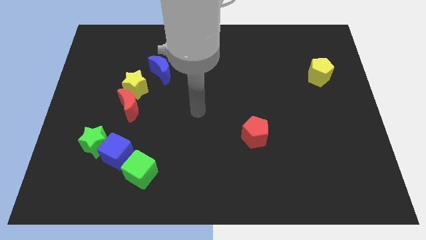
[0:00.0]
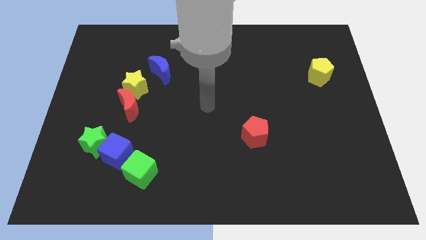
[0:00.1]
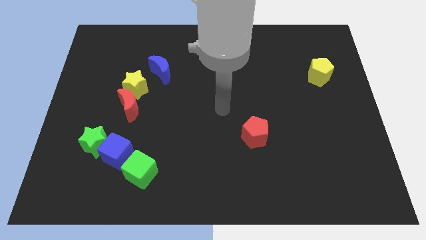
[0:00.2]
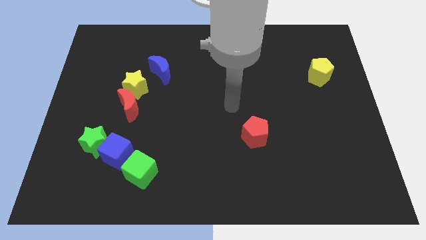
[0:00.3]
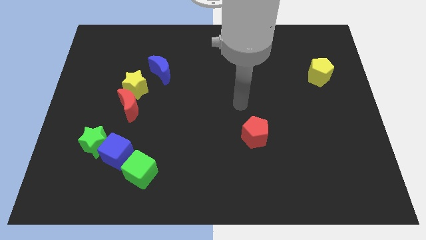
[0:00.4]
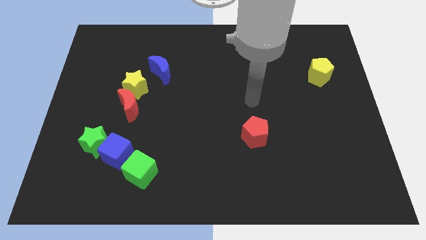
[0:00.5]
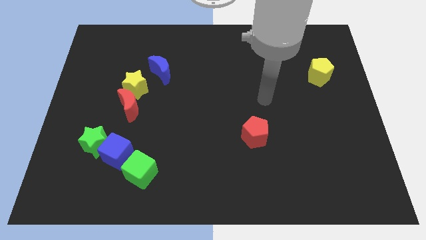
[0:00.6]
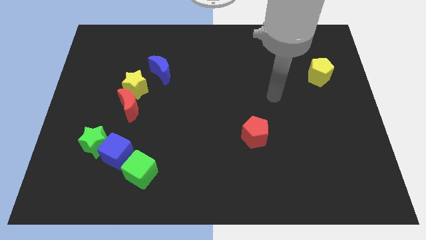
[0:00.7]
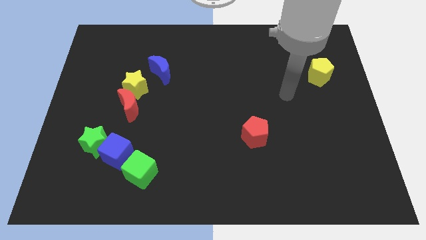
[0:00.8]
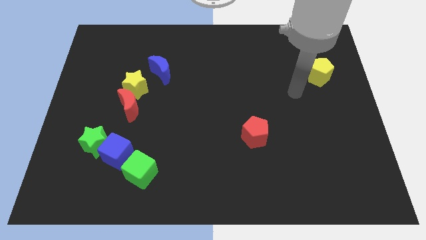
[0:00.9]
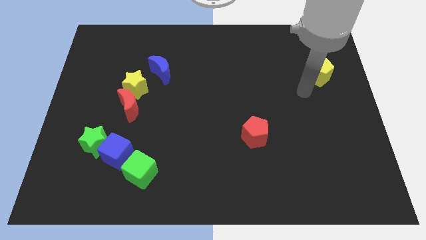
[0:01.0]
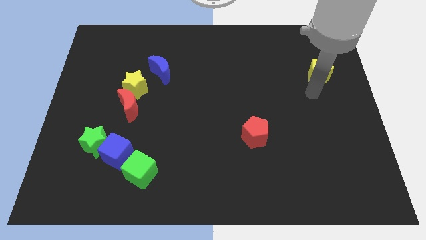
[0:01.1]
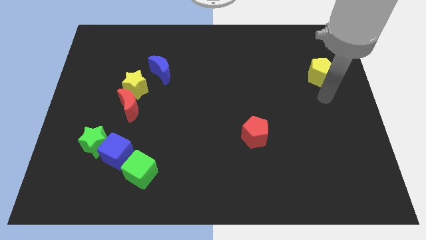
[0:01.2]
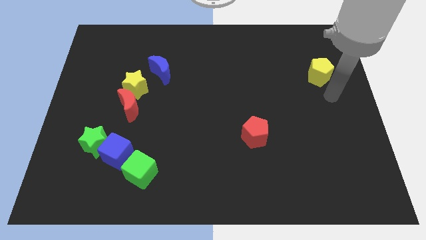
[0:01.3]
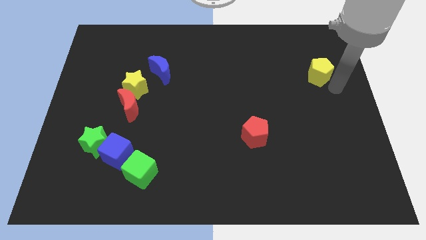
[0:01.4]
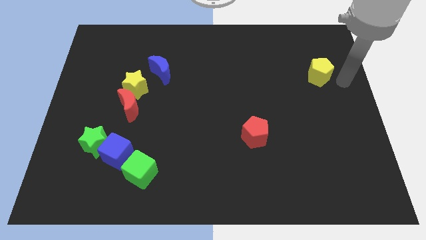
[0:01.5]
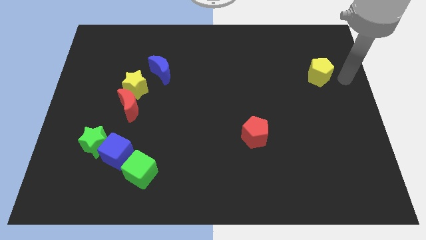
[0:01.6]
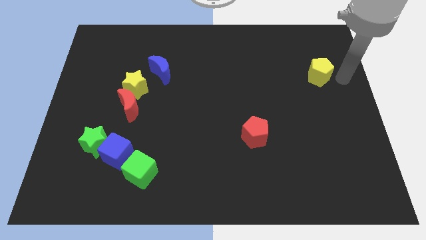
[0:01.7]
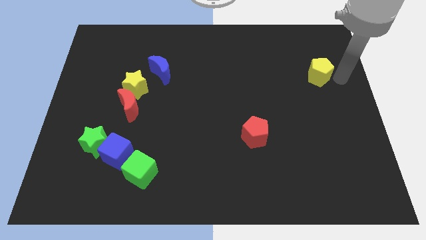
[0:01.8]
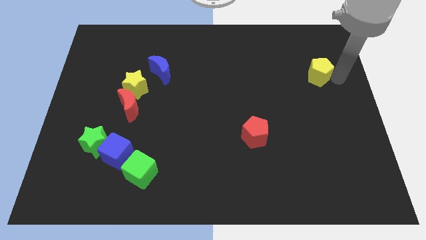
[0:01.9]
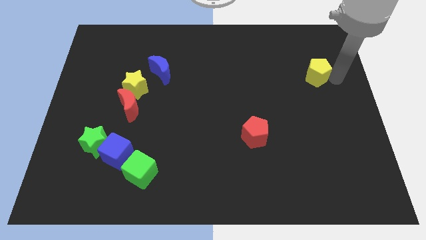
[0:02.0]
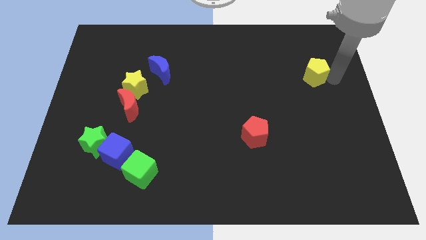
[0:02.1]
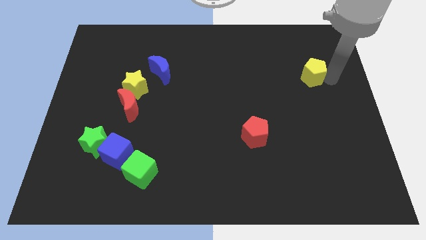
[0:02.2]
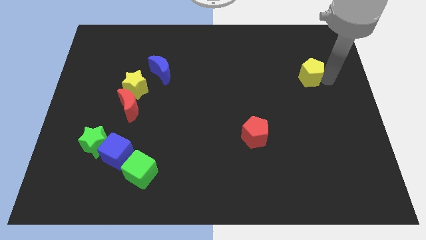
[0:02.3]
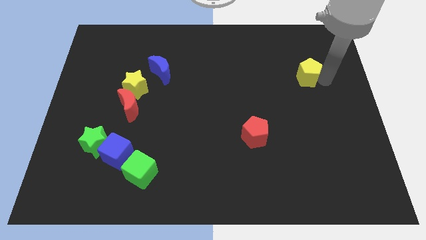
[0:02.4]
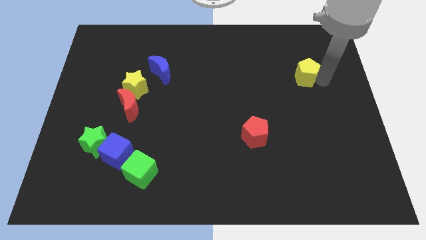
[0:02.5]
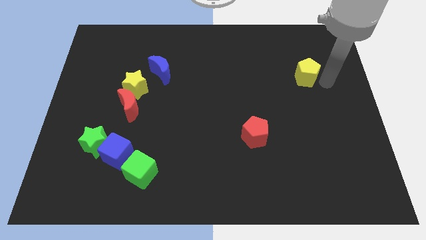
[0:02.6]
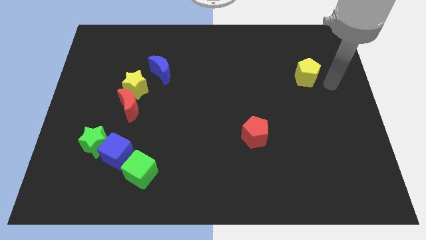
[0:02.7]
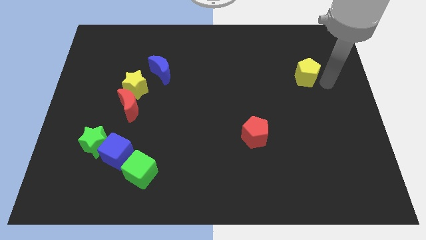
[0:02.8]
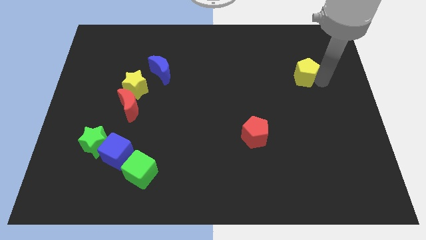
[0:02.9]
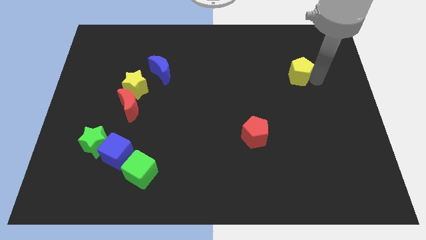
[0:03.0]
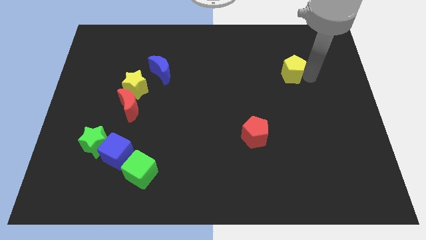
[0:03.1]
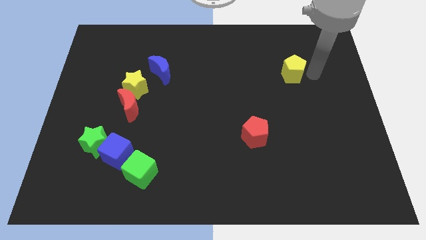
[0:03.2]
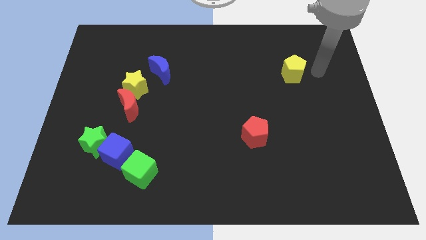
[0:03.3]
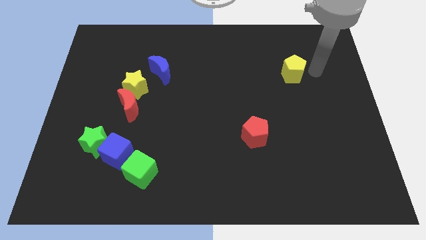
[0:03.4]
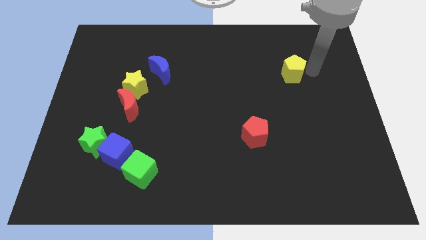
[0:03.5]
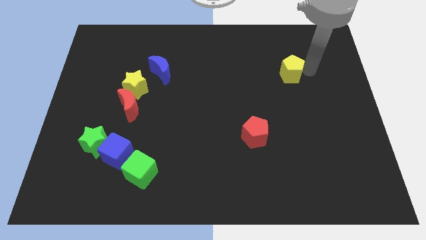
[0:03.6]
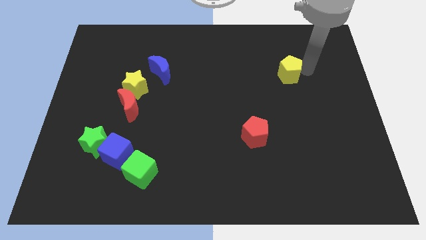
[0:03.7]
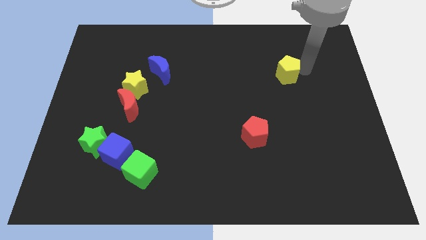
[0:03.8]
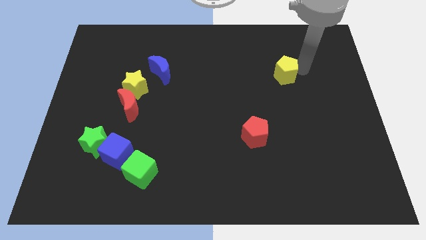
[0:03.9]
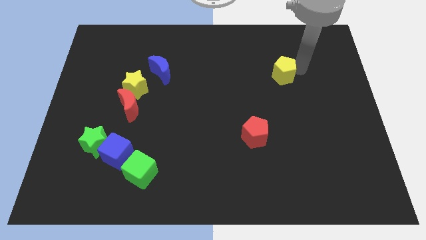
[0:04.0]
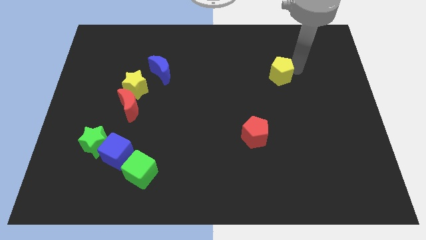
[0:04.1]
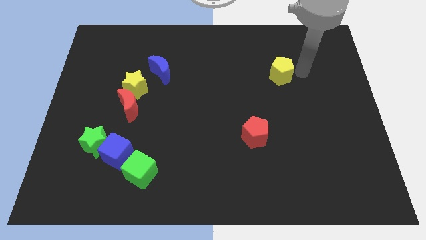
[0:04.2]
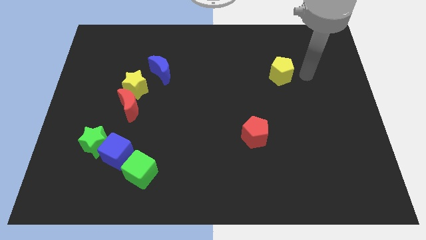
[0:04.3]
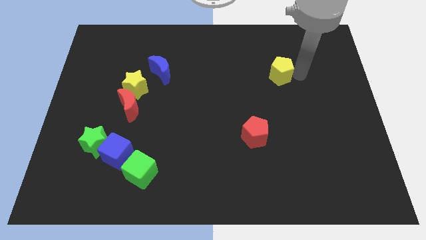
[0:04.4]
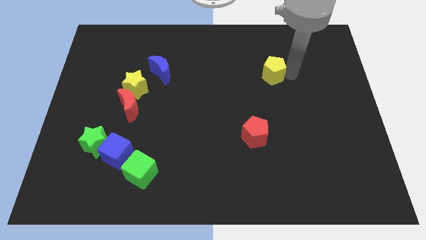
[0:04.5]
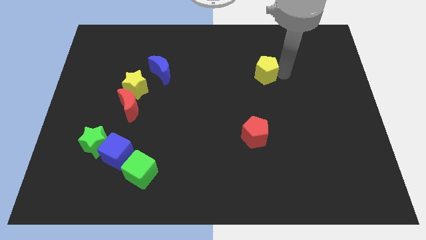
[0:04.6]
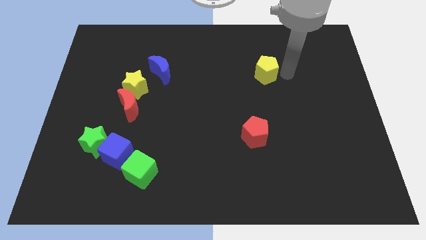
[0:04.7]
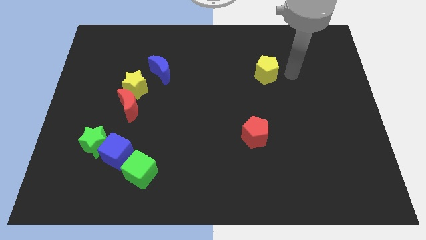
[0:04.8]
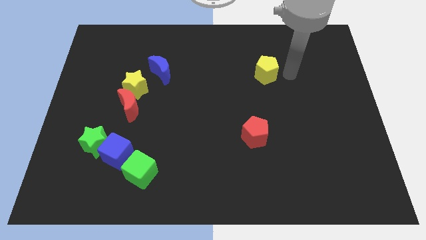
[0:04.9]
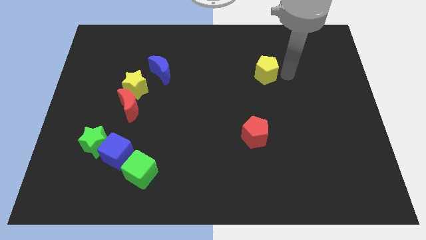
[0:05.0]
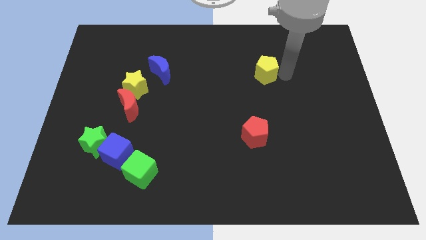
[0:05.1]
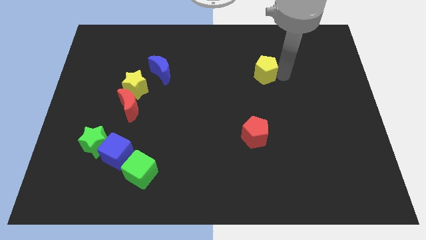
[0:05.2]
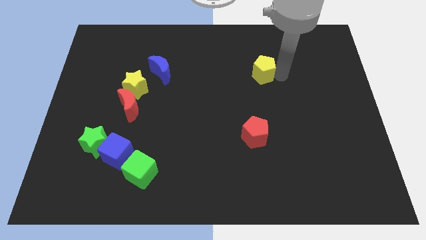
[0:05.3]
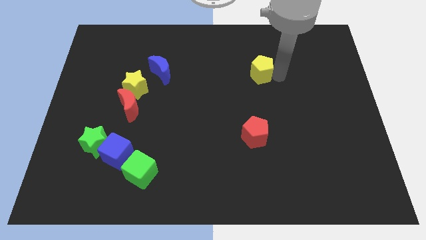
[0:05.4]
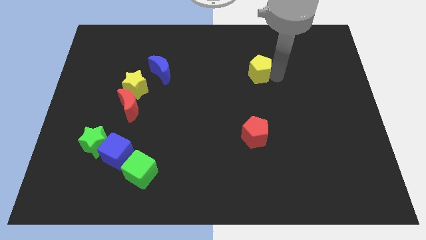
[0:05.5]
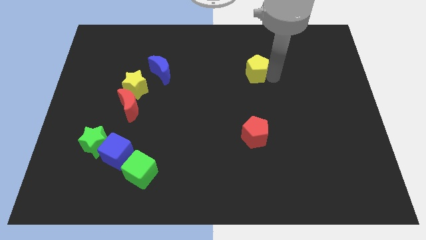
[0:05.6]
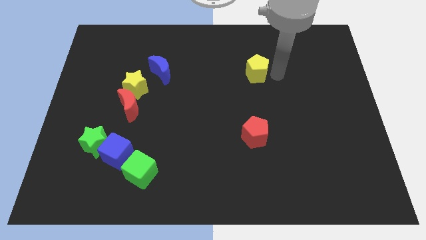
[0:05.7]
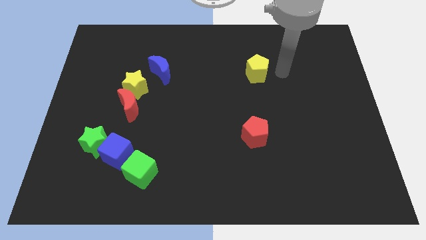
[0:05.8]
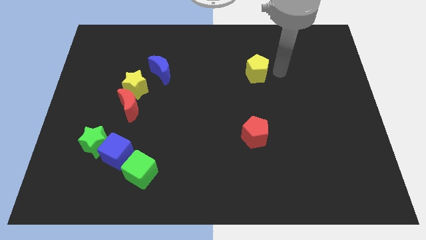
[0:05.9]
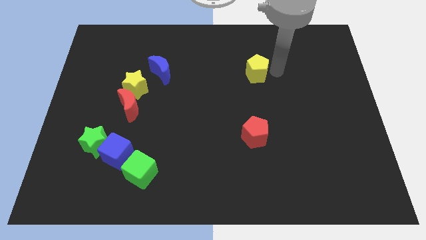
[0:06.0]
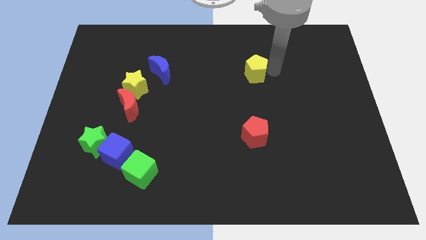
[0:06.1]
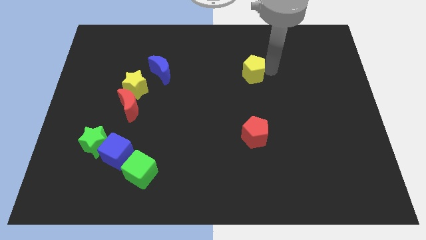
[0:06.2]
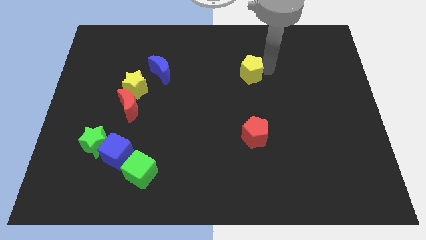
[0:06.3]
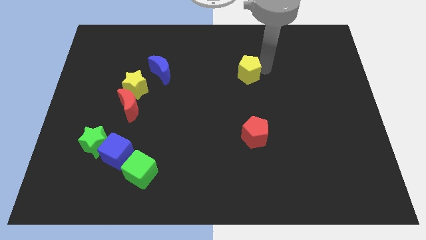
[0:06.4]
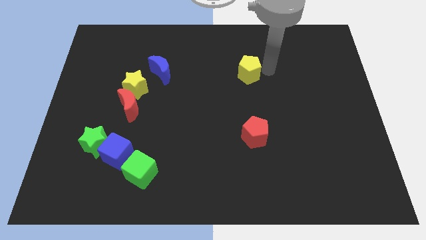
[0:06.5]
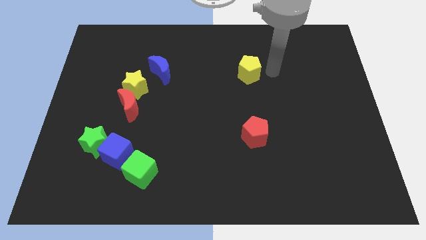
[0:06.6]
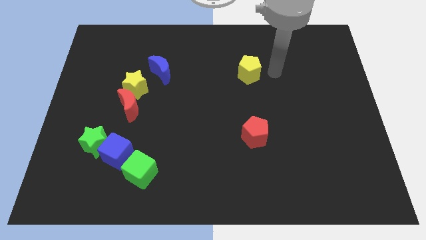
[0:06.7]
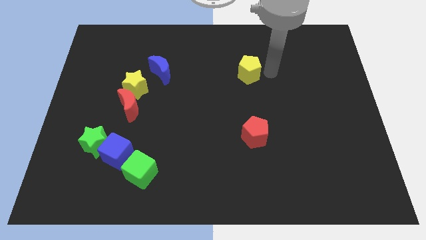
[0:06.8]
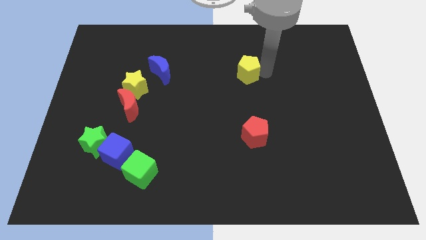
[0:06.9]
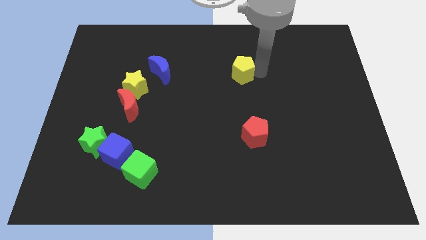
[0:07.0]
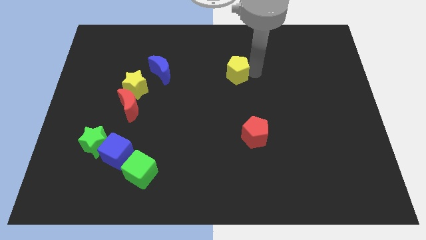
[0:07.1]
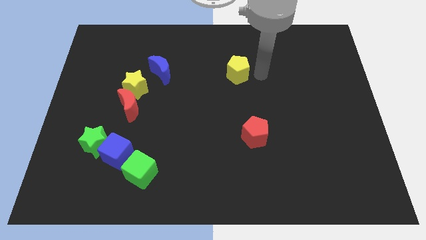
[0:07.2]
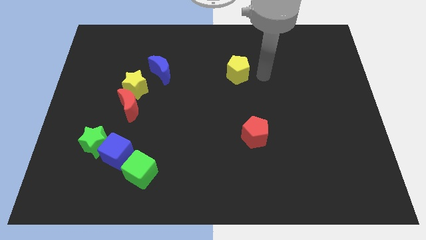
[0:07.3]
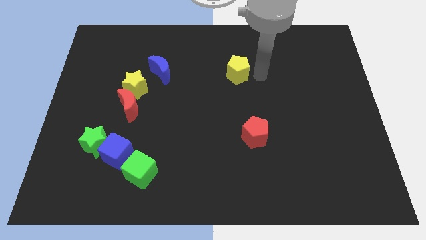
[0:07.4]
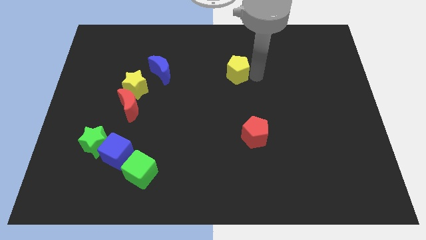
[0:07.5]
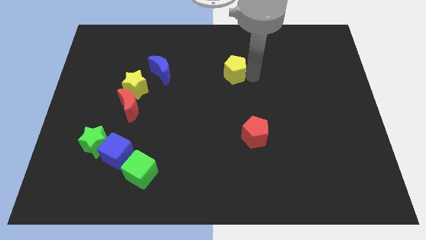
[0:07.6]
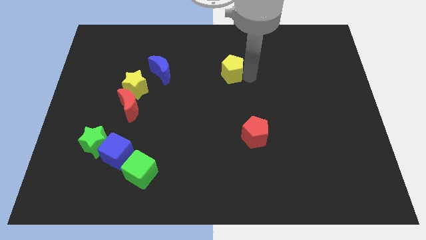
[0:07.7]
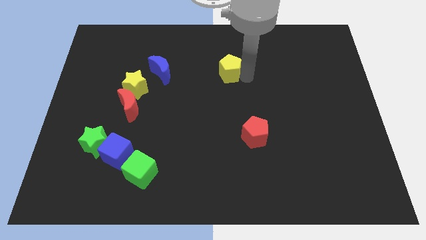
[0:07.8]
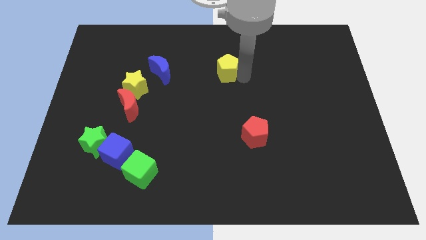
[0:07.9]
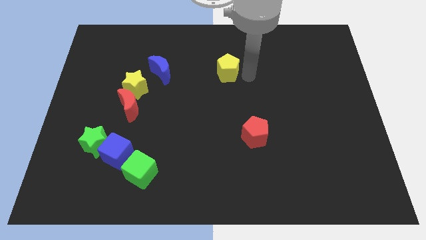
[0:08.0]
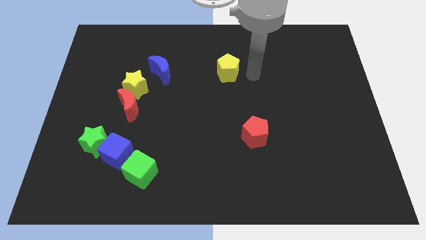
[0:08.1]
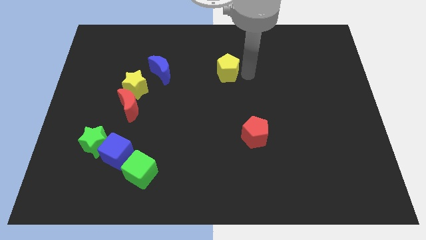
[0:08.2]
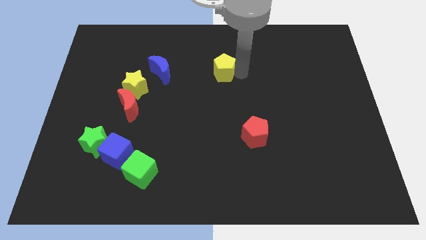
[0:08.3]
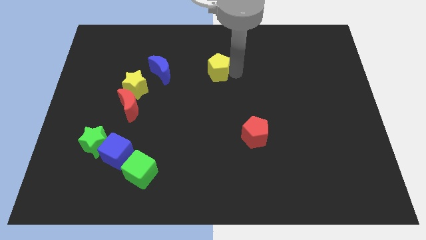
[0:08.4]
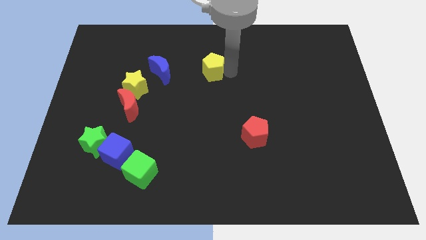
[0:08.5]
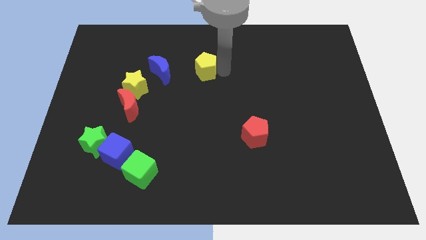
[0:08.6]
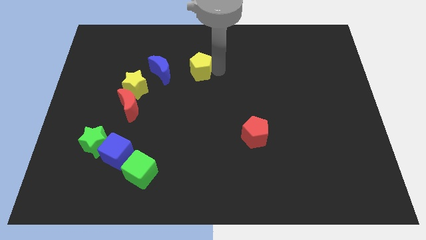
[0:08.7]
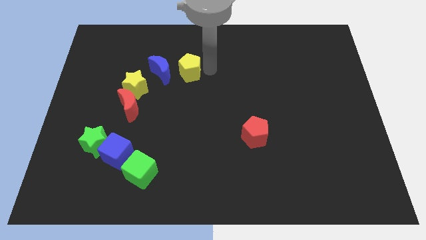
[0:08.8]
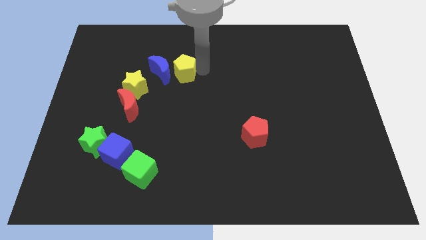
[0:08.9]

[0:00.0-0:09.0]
move the yellow pentagon to the blue moon
